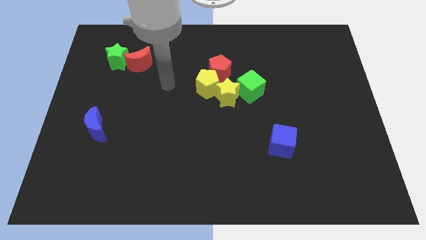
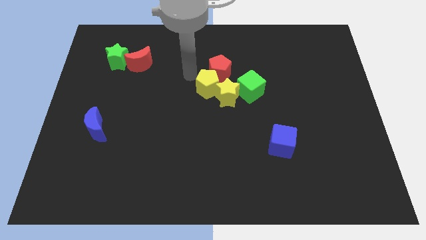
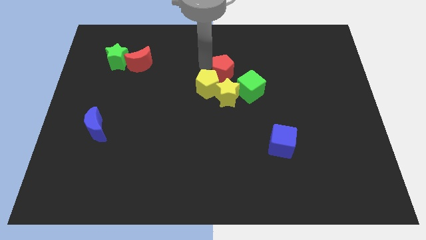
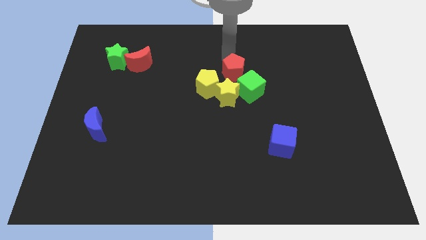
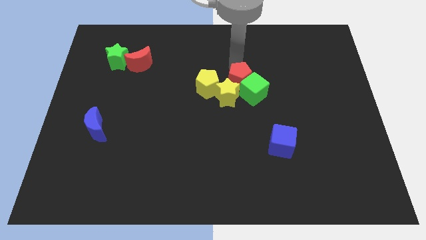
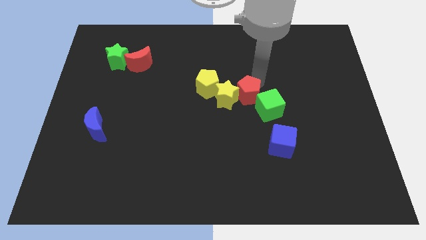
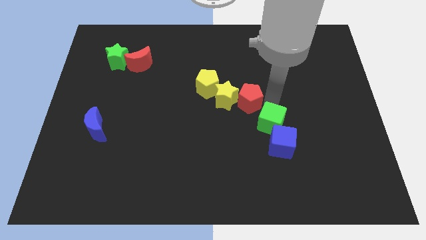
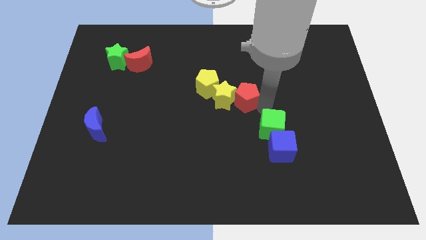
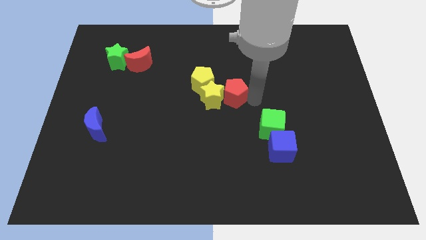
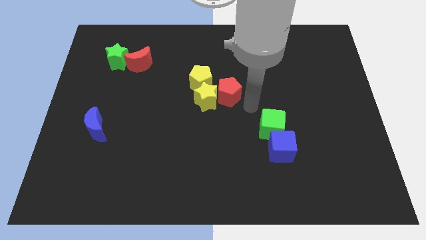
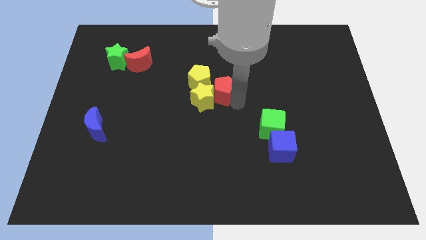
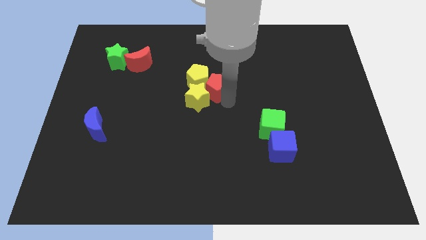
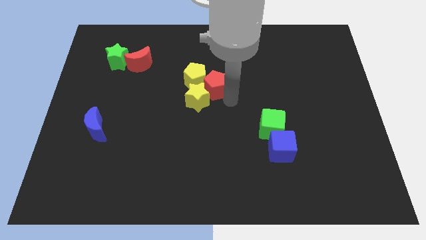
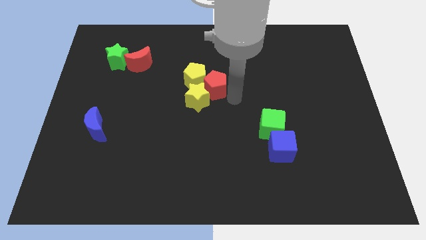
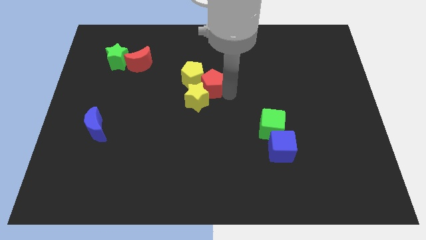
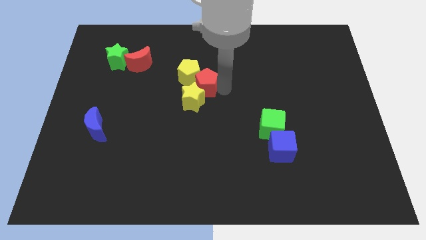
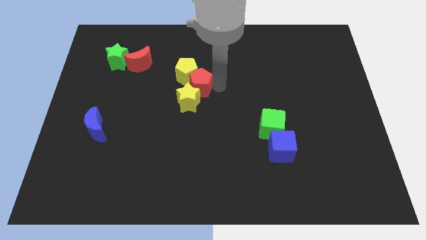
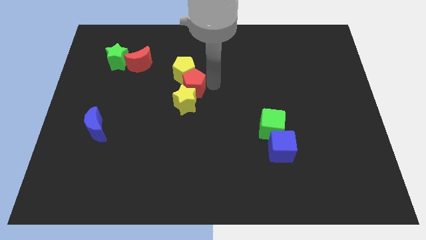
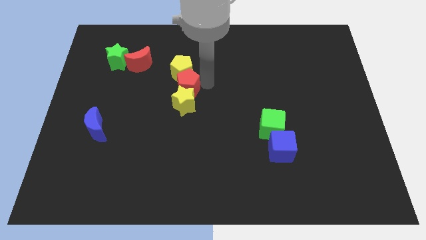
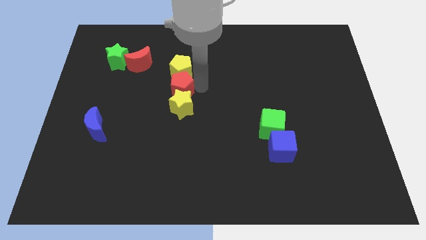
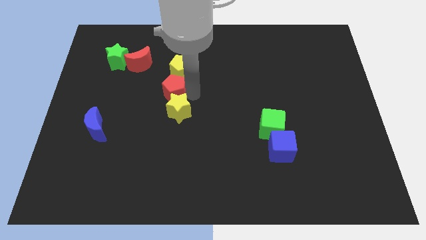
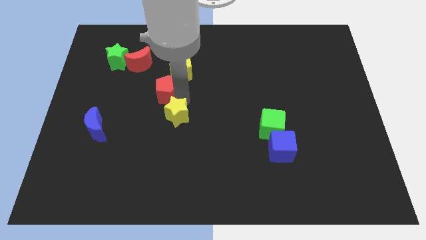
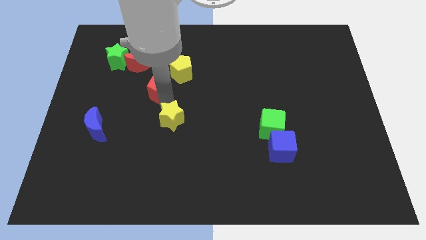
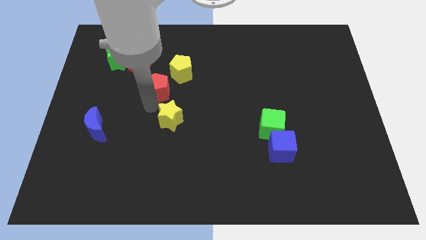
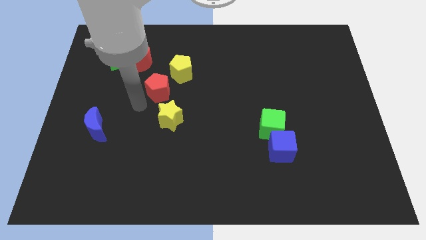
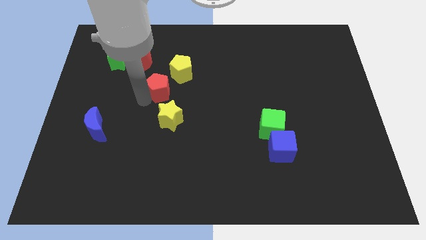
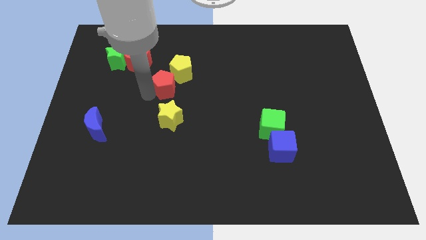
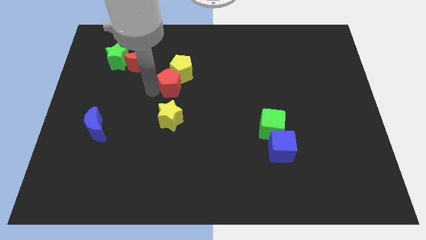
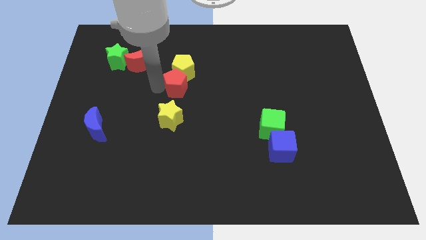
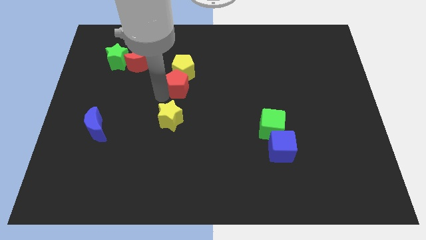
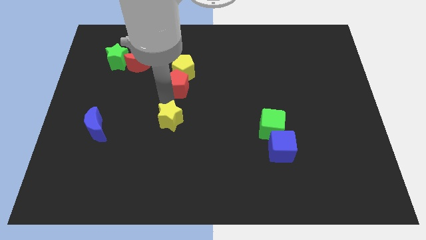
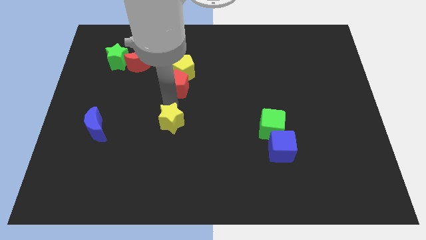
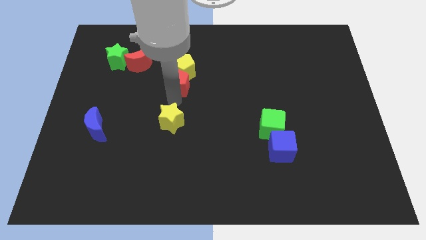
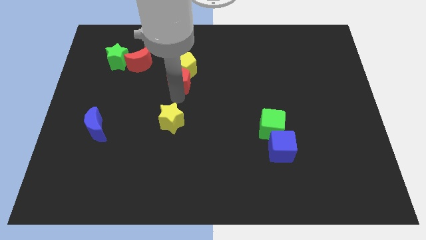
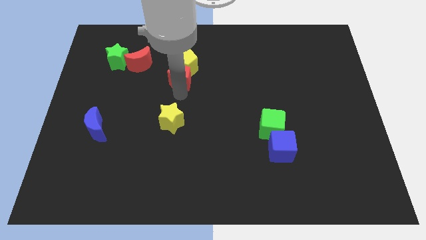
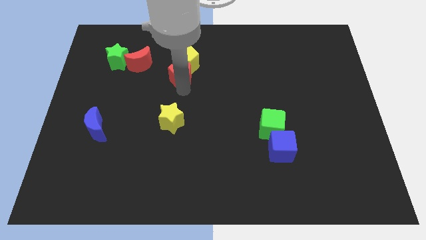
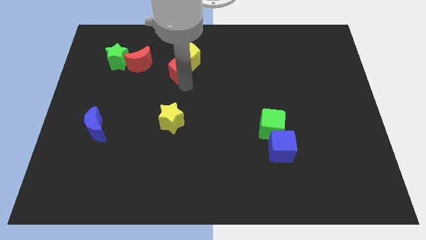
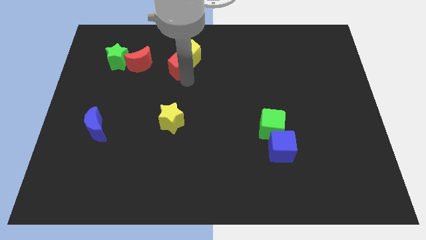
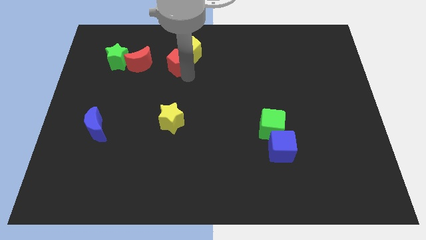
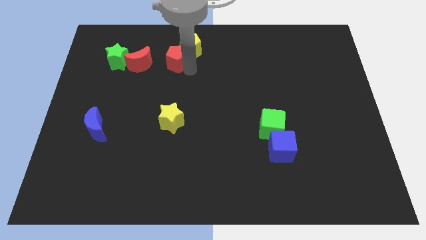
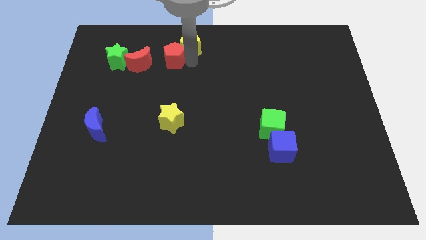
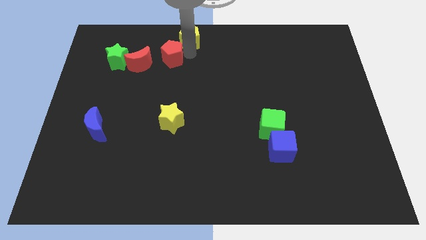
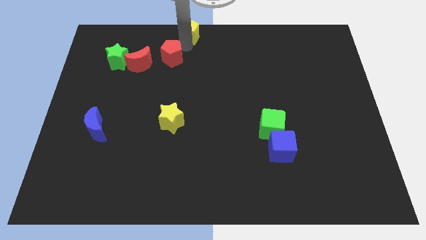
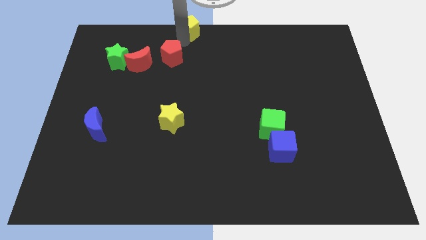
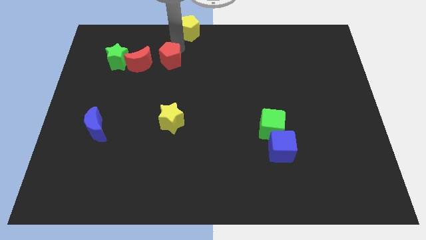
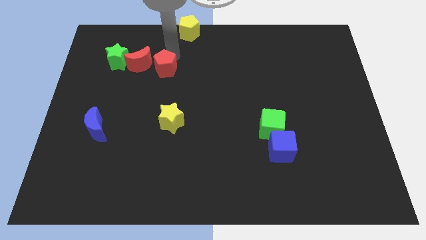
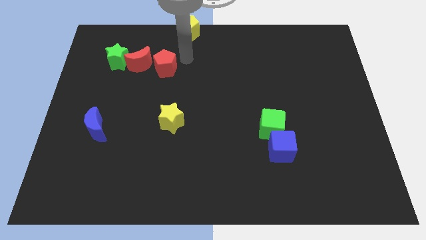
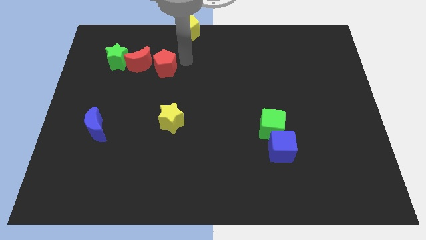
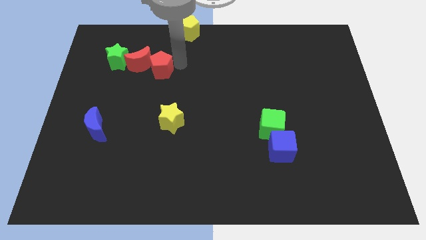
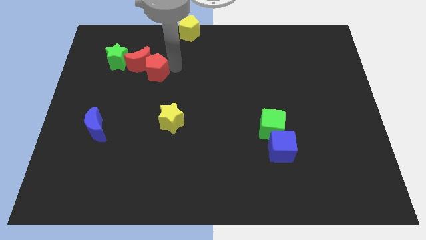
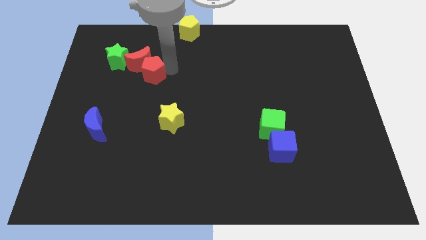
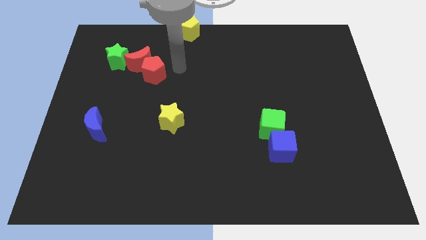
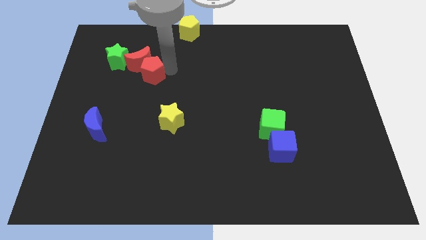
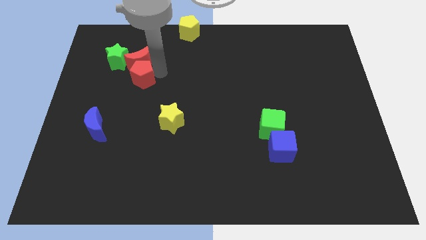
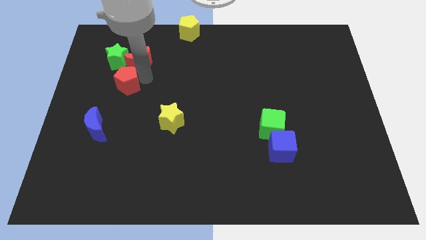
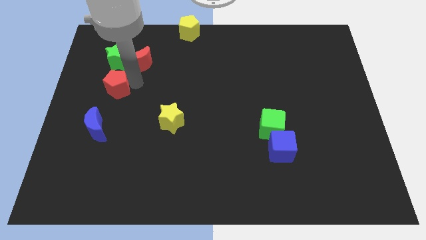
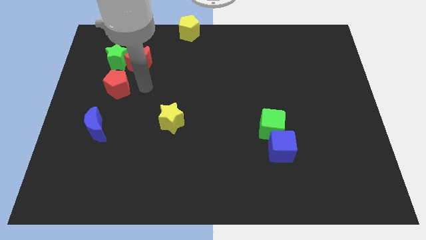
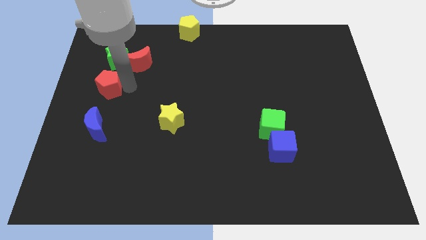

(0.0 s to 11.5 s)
move the red pentagon to the left side

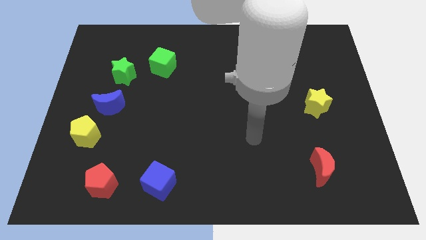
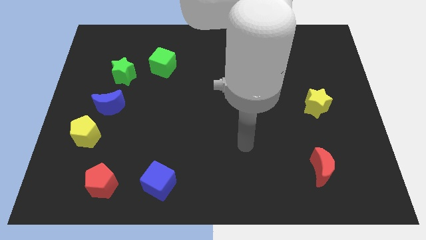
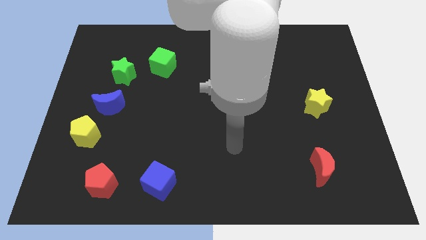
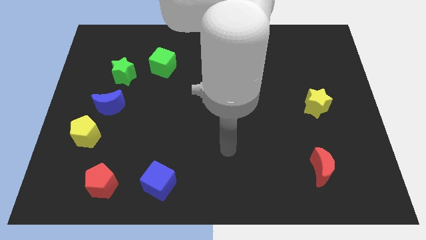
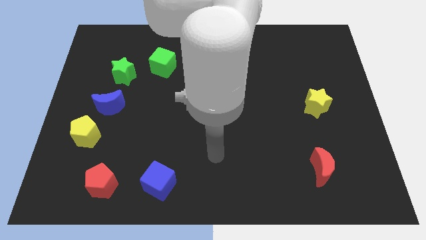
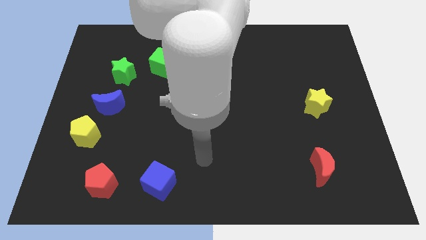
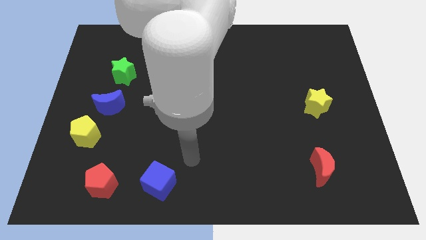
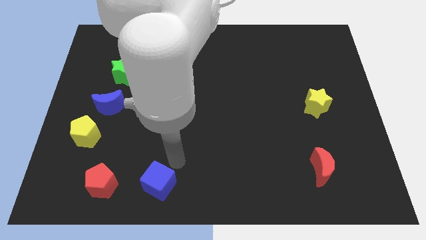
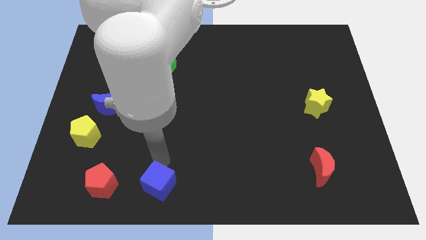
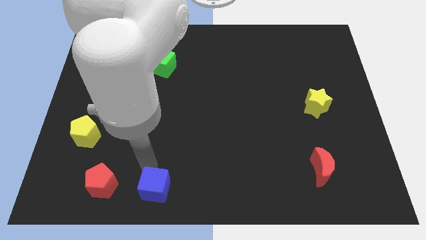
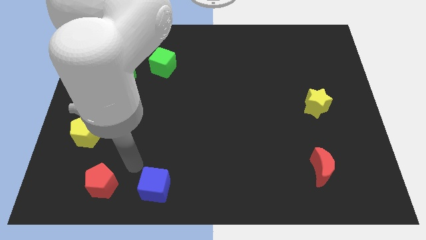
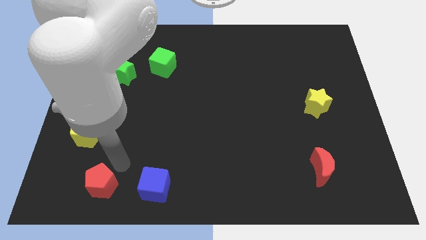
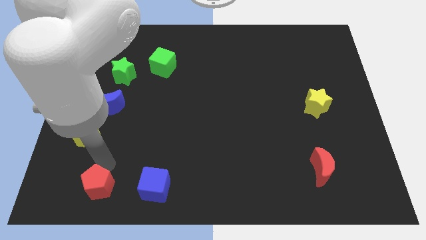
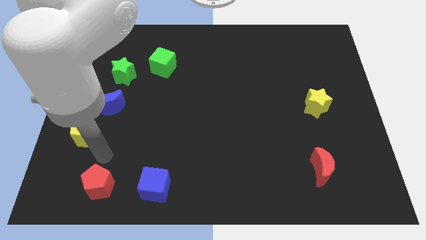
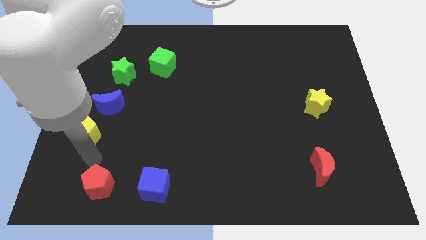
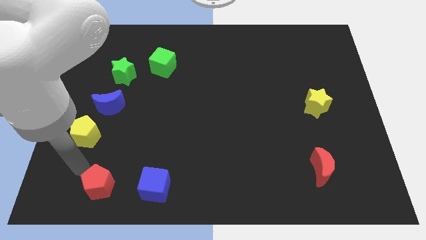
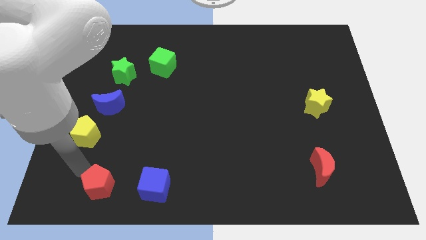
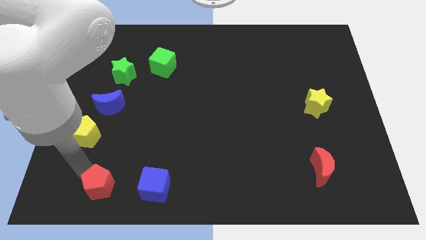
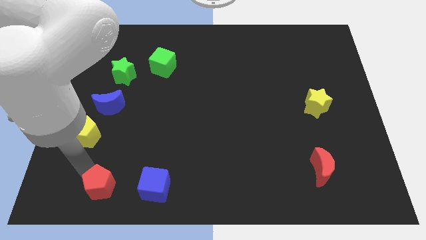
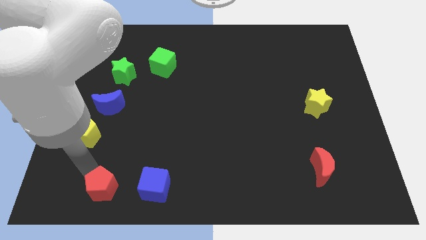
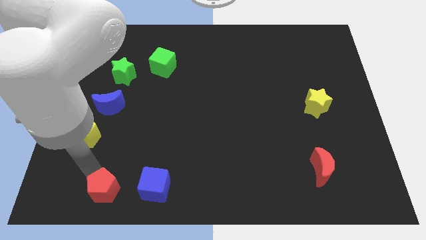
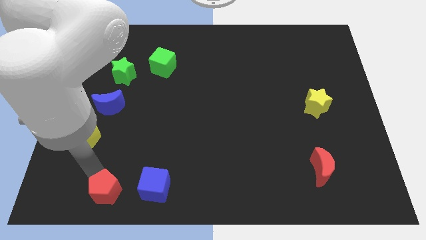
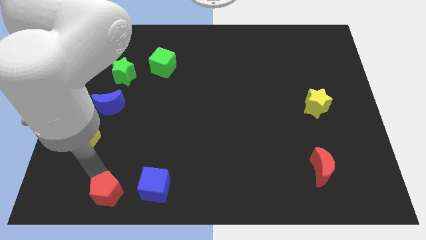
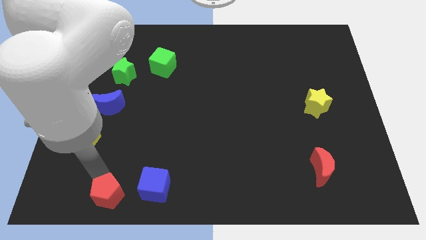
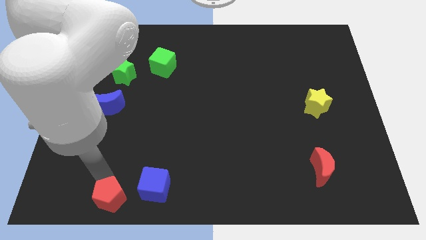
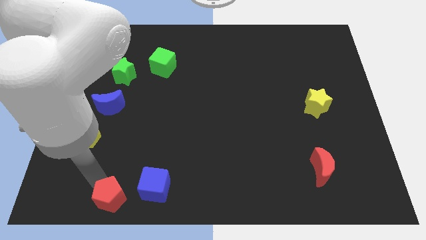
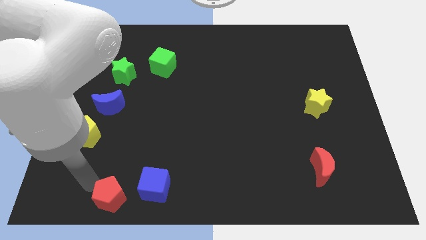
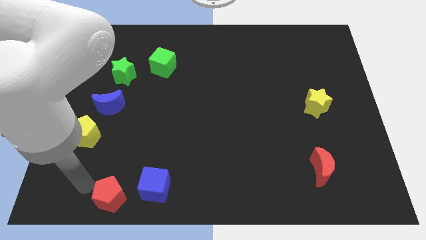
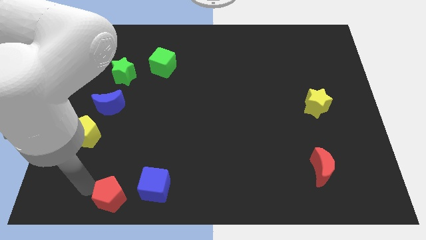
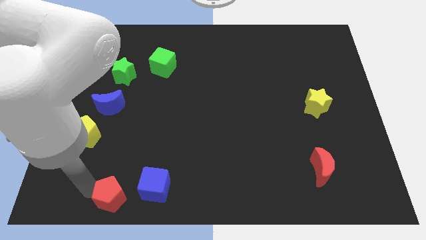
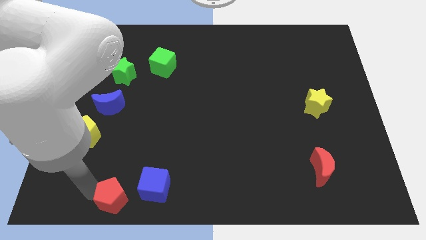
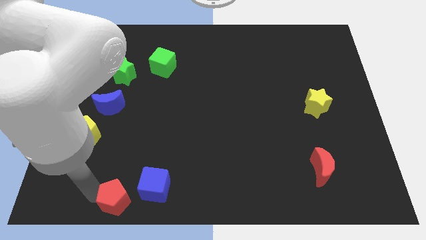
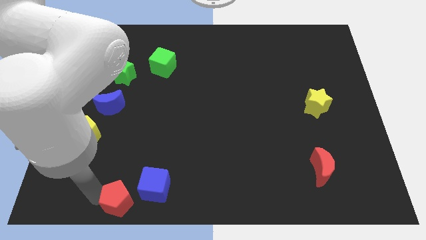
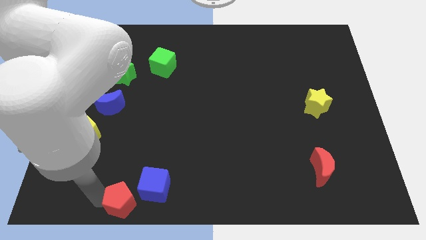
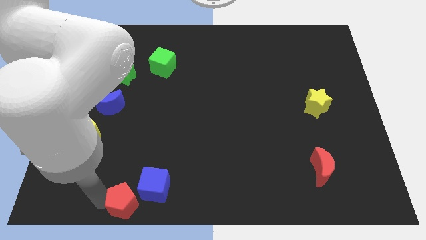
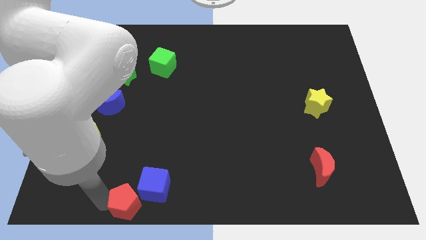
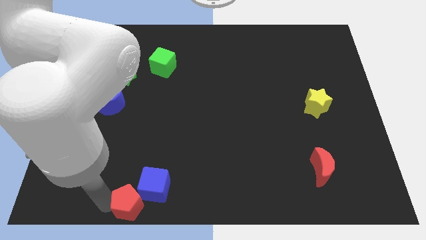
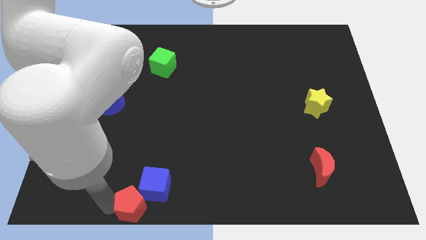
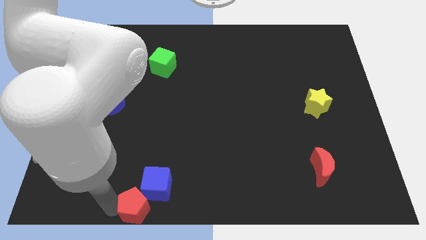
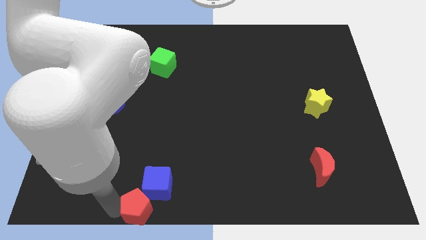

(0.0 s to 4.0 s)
move the red pentagon to the bottom side
